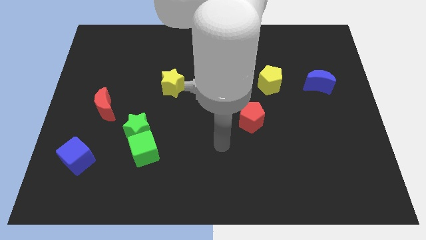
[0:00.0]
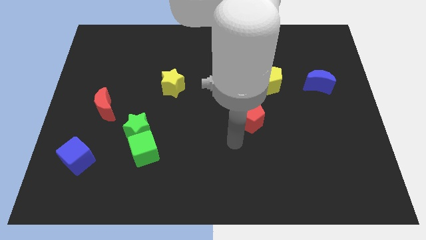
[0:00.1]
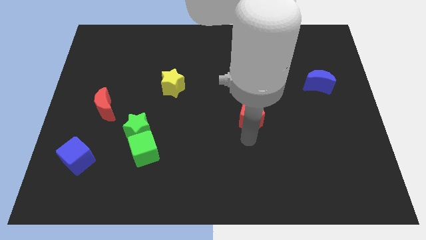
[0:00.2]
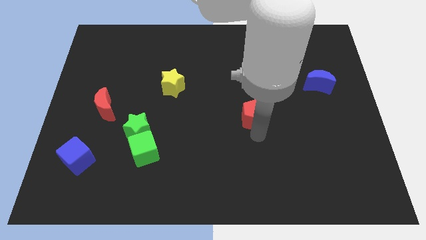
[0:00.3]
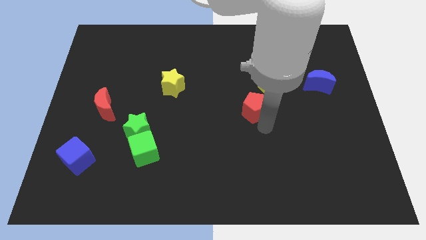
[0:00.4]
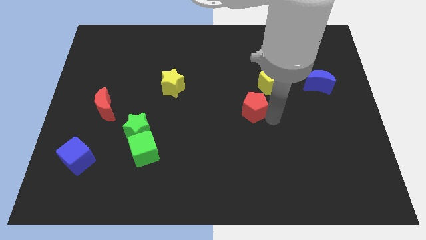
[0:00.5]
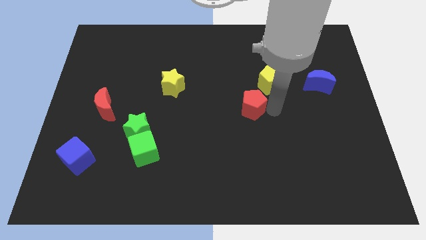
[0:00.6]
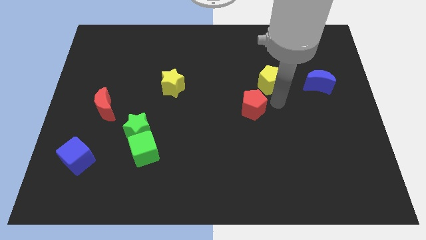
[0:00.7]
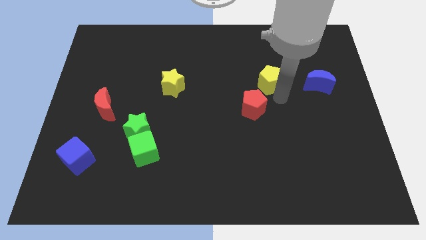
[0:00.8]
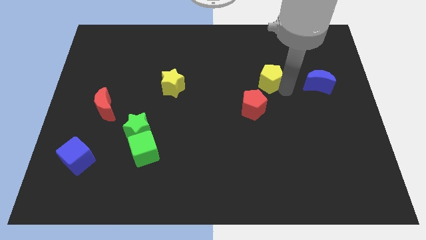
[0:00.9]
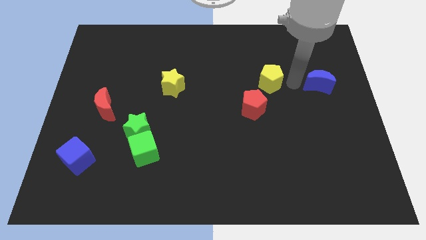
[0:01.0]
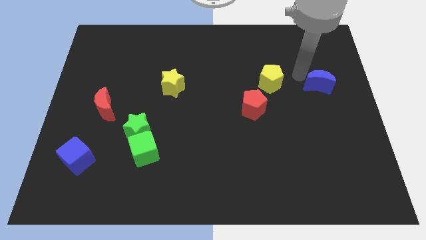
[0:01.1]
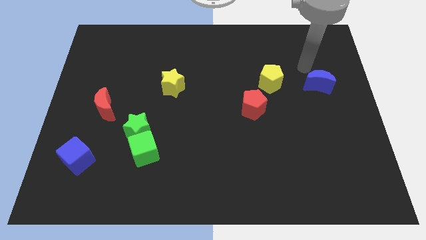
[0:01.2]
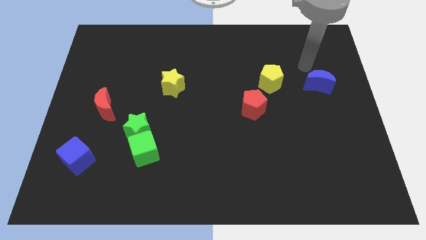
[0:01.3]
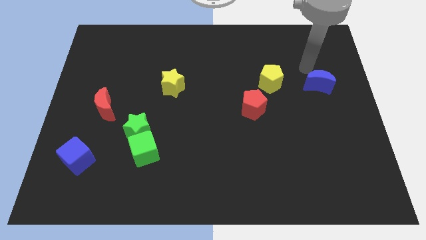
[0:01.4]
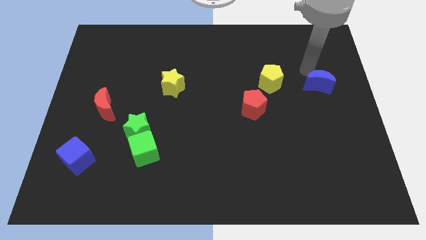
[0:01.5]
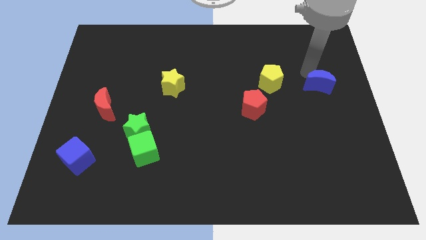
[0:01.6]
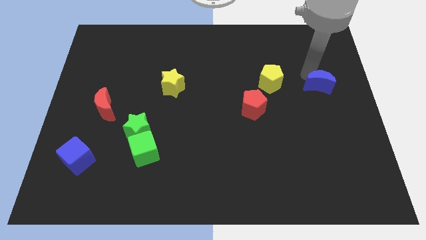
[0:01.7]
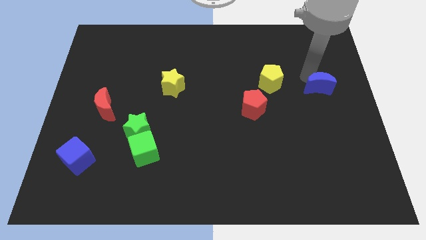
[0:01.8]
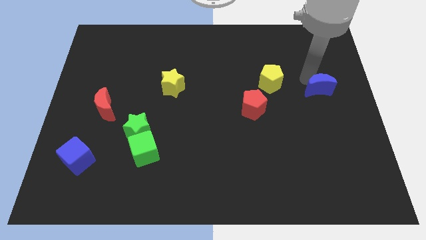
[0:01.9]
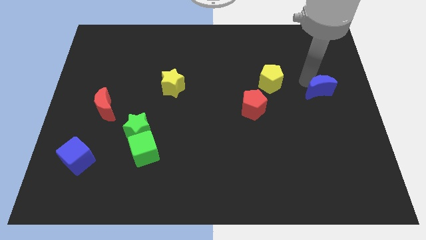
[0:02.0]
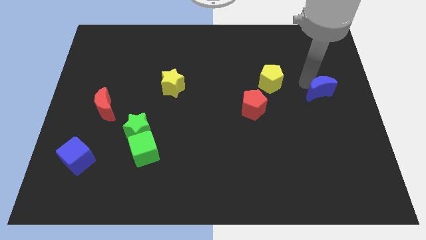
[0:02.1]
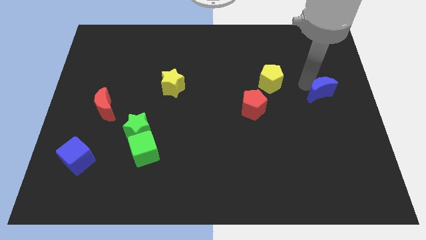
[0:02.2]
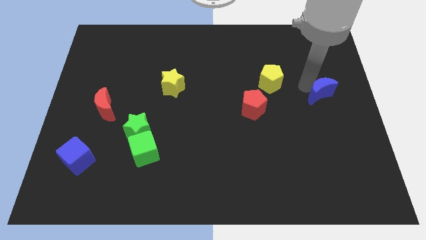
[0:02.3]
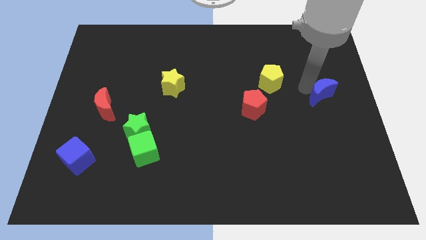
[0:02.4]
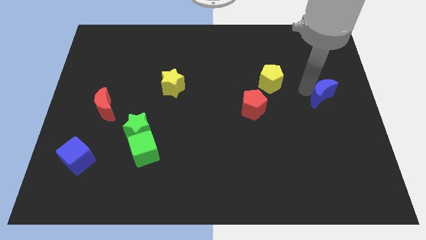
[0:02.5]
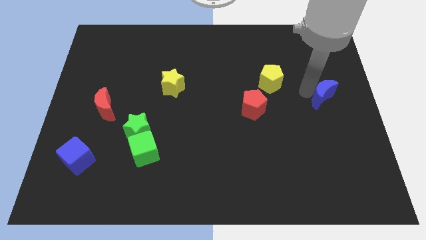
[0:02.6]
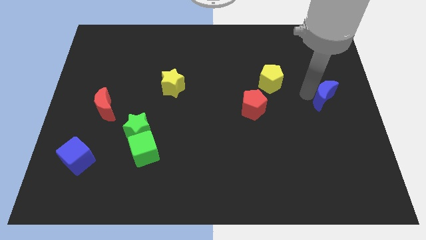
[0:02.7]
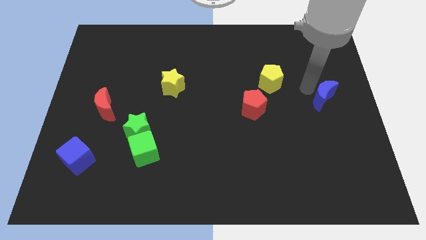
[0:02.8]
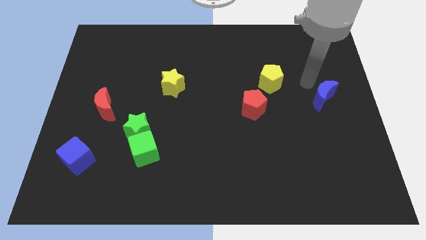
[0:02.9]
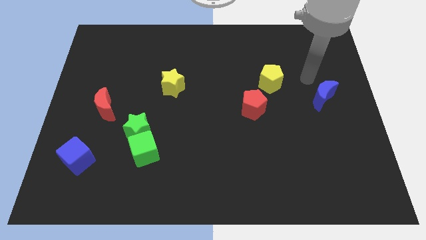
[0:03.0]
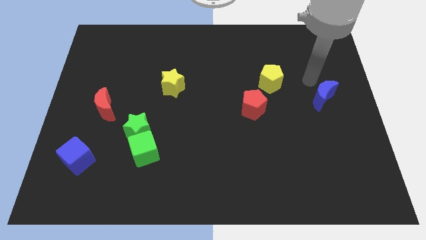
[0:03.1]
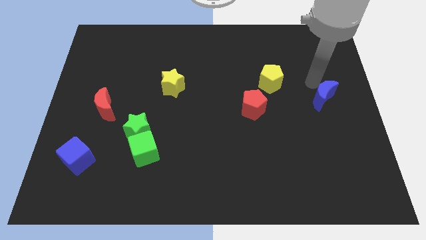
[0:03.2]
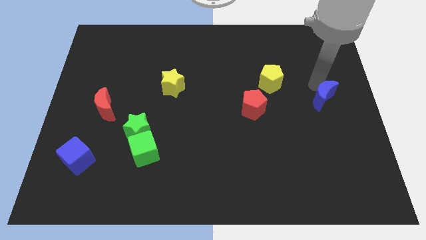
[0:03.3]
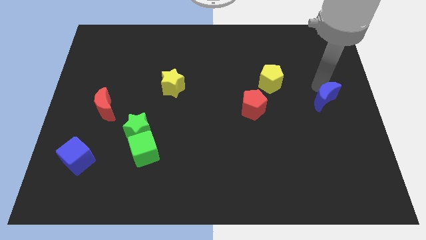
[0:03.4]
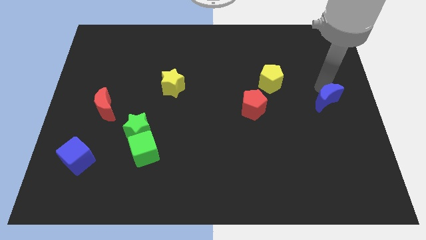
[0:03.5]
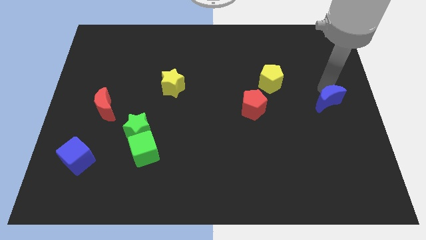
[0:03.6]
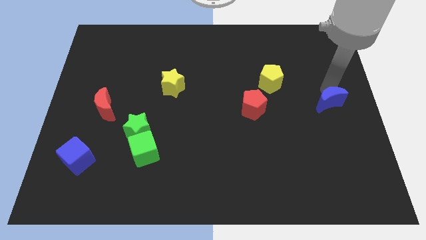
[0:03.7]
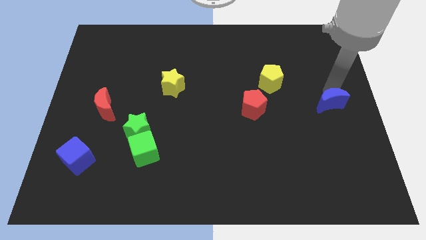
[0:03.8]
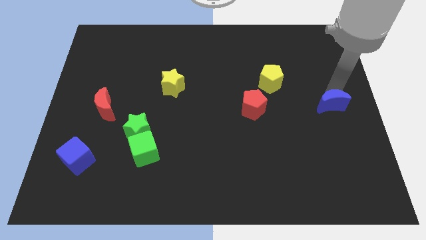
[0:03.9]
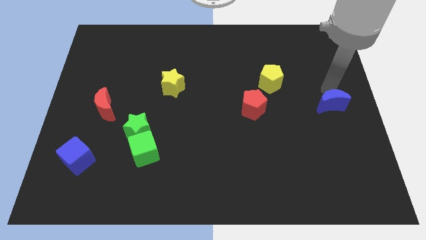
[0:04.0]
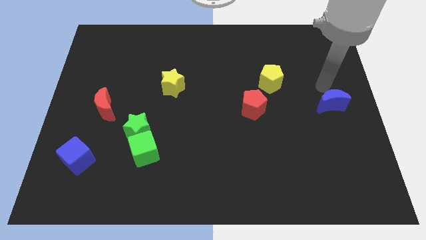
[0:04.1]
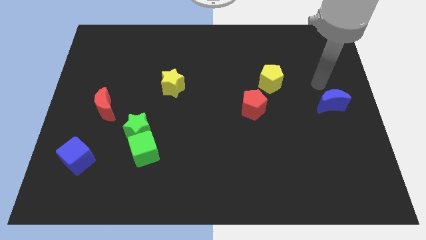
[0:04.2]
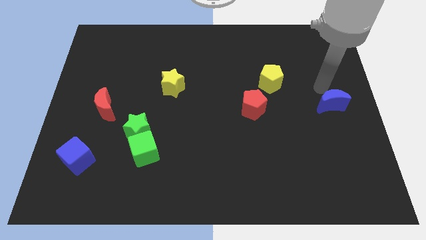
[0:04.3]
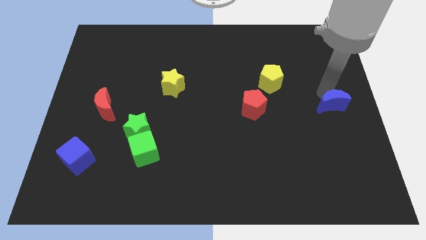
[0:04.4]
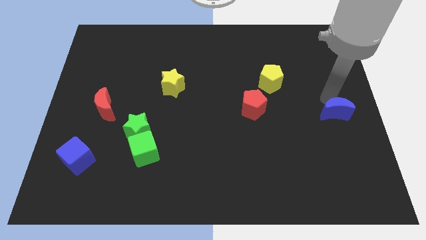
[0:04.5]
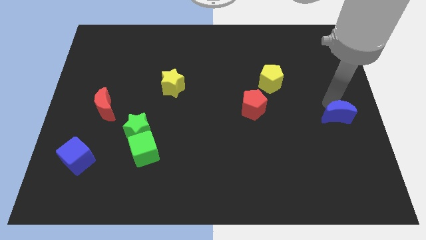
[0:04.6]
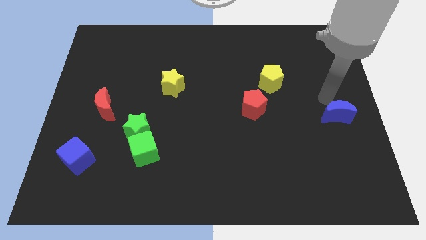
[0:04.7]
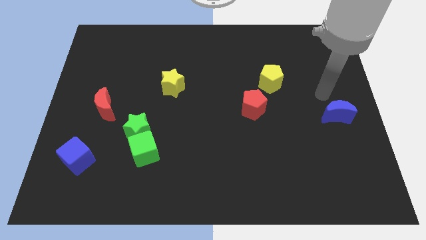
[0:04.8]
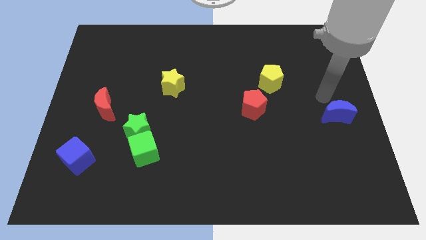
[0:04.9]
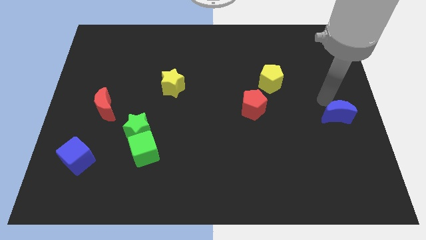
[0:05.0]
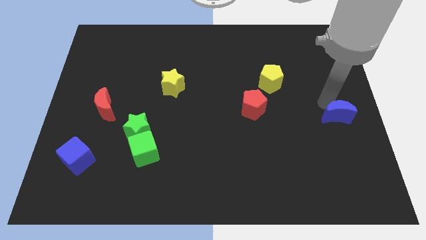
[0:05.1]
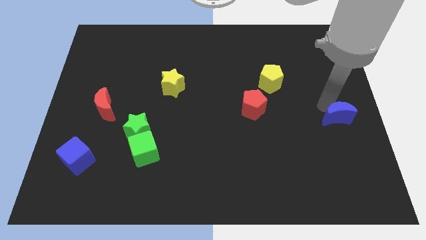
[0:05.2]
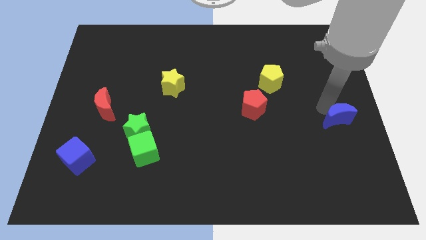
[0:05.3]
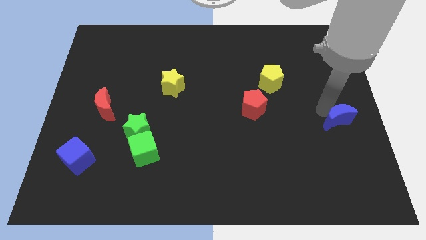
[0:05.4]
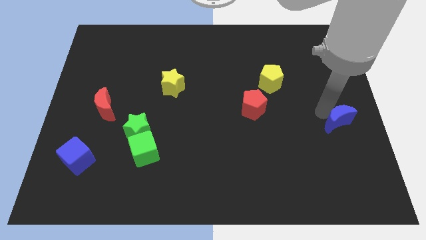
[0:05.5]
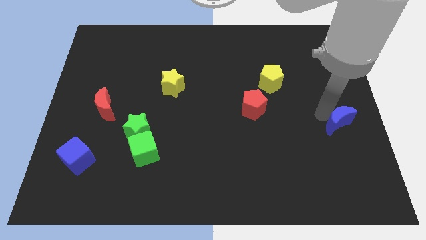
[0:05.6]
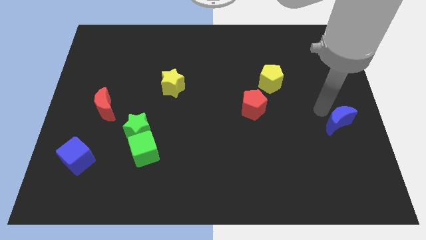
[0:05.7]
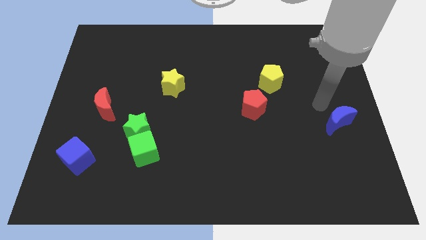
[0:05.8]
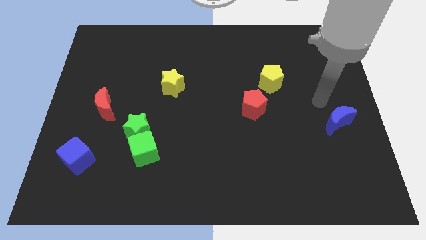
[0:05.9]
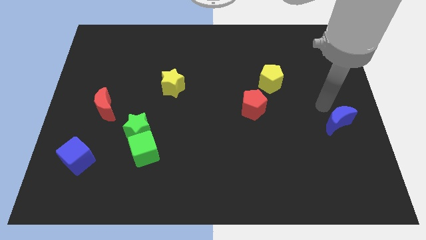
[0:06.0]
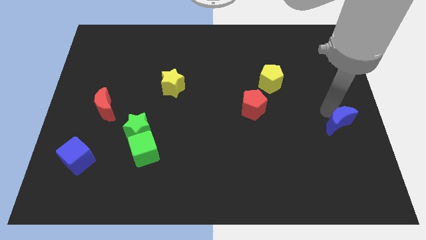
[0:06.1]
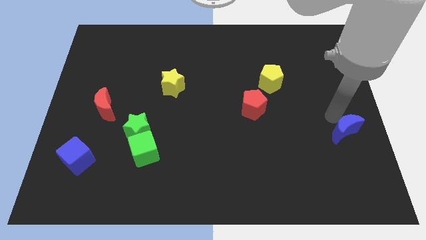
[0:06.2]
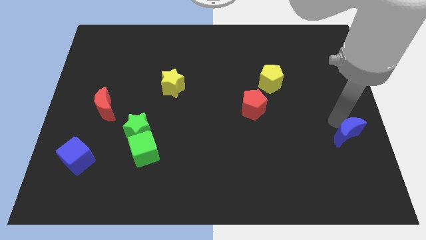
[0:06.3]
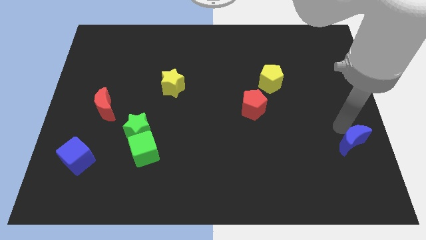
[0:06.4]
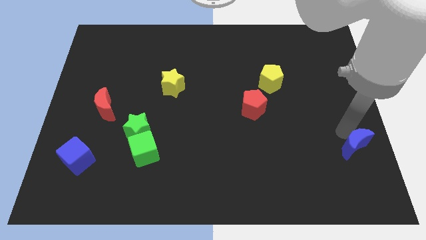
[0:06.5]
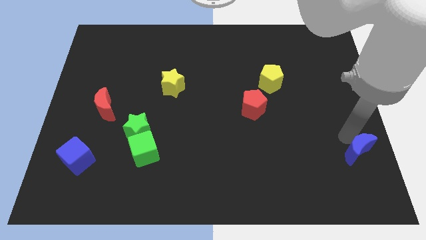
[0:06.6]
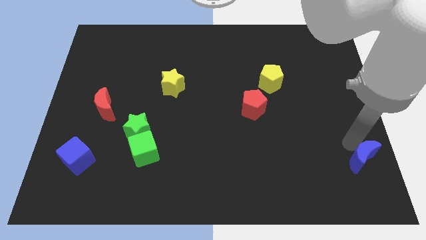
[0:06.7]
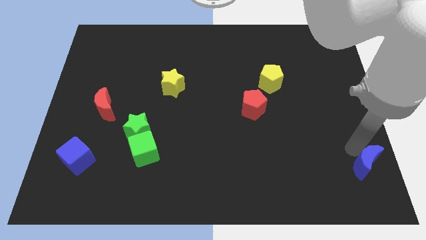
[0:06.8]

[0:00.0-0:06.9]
slide the blue moon to the lower right corner
